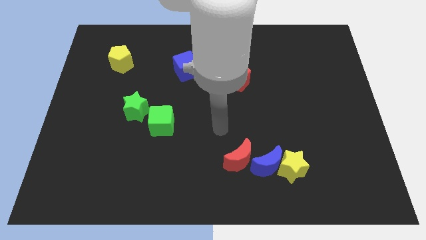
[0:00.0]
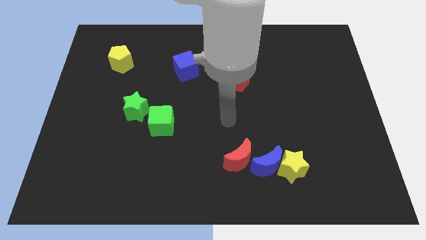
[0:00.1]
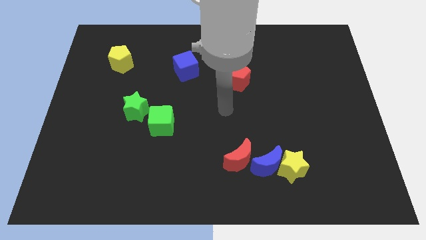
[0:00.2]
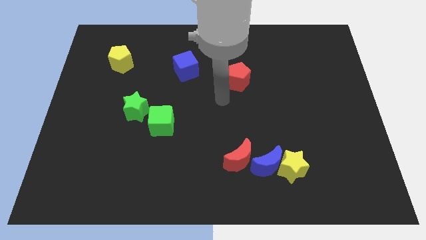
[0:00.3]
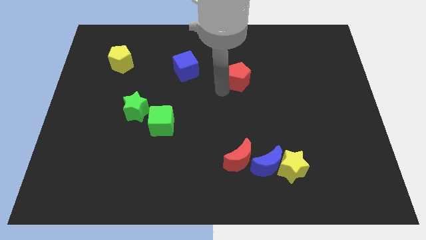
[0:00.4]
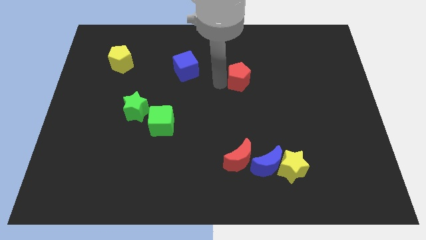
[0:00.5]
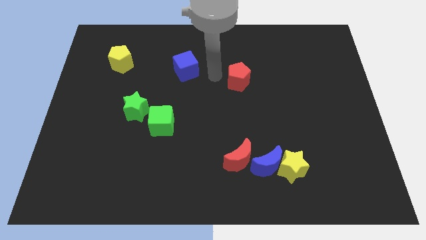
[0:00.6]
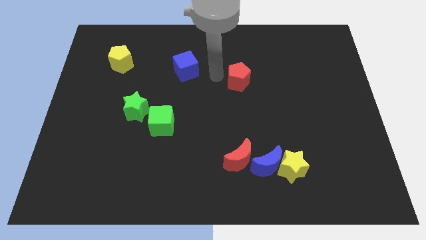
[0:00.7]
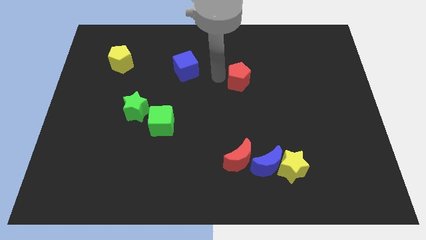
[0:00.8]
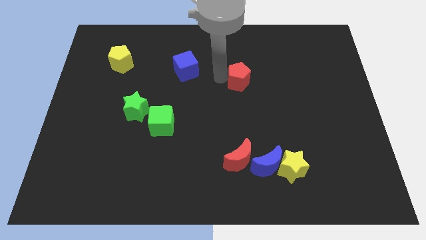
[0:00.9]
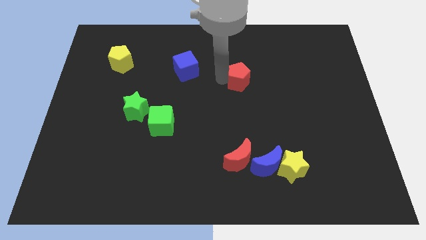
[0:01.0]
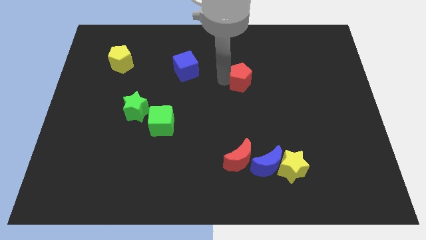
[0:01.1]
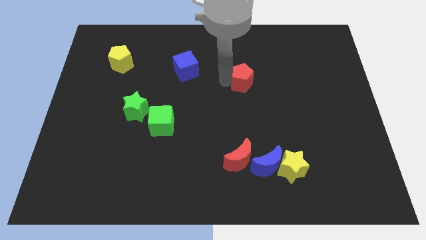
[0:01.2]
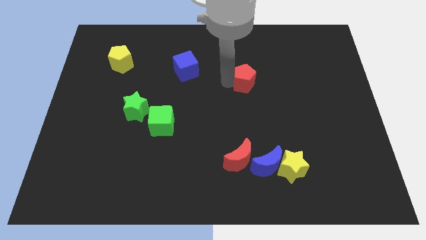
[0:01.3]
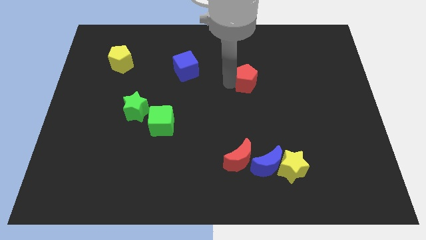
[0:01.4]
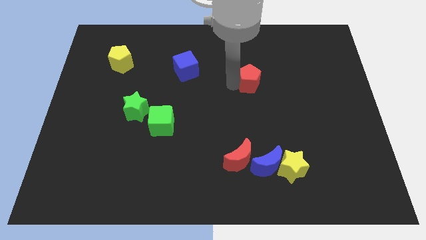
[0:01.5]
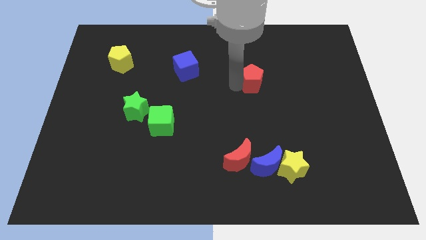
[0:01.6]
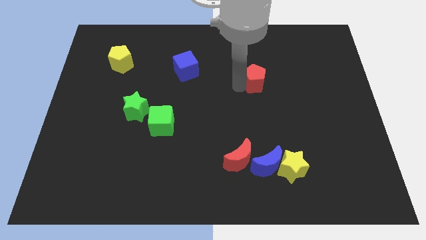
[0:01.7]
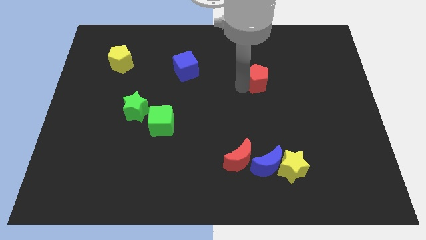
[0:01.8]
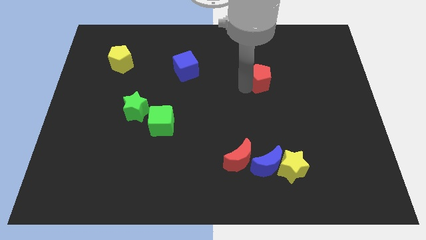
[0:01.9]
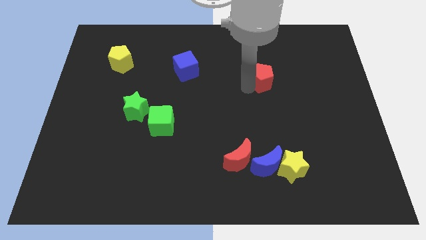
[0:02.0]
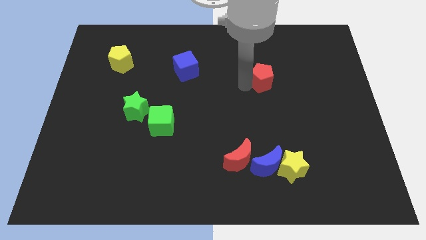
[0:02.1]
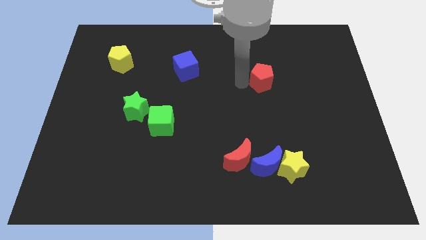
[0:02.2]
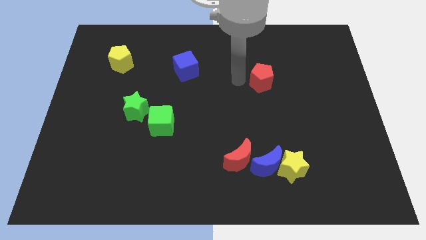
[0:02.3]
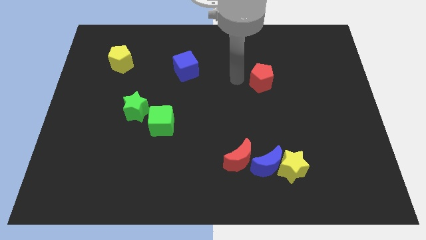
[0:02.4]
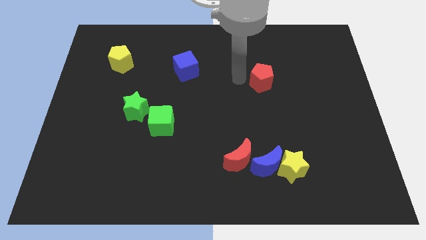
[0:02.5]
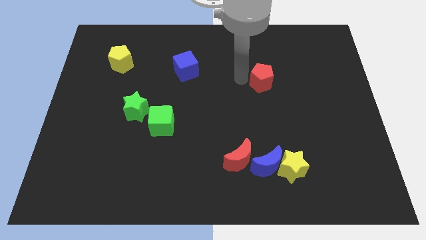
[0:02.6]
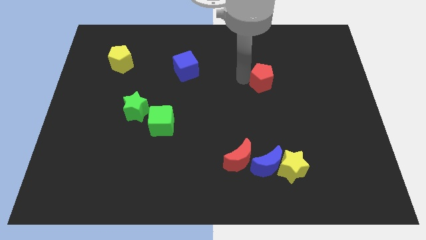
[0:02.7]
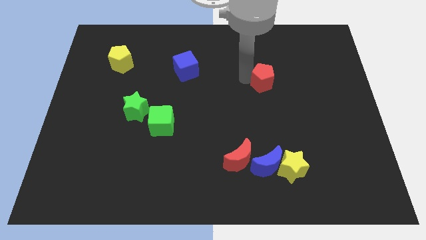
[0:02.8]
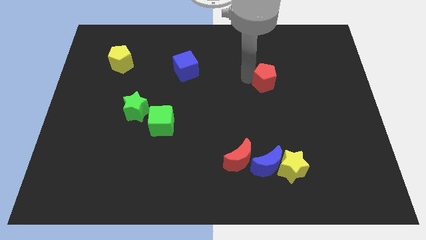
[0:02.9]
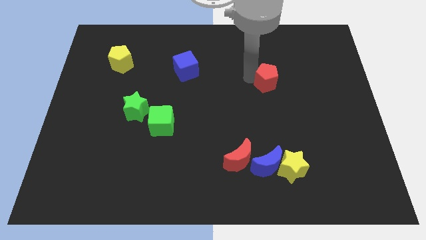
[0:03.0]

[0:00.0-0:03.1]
slightly slide the red pentagon to the right

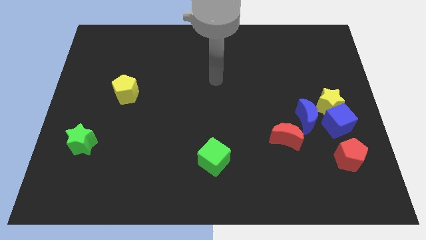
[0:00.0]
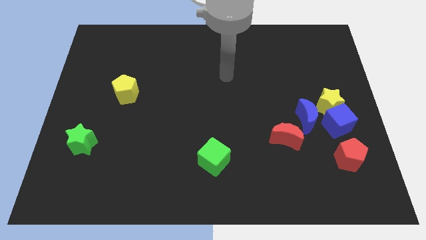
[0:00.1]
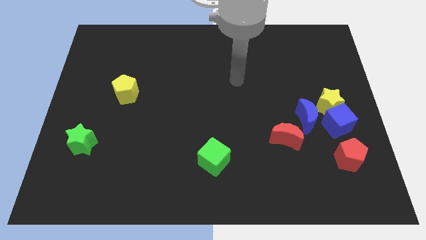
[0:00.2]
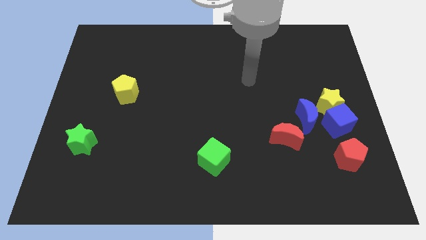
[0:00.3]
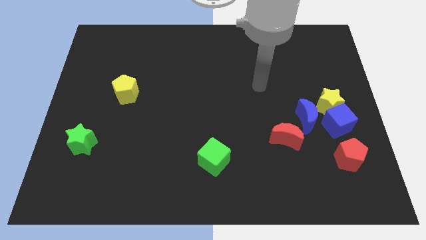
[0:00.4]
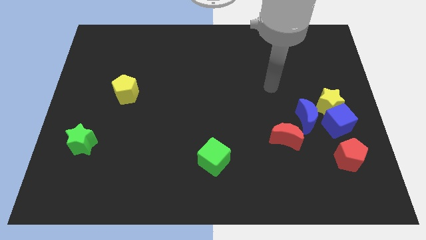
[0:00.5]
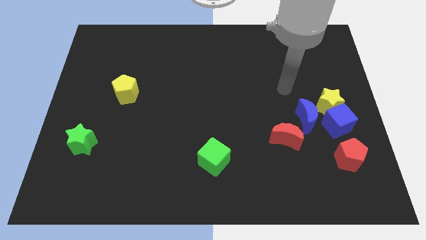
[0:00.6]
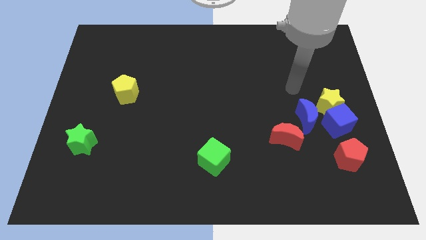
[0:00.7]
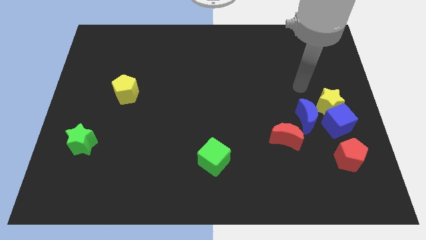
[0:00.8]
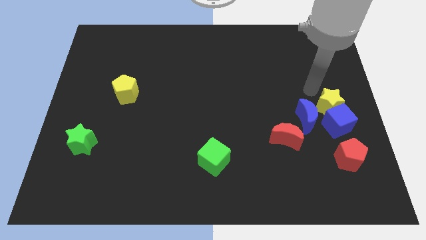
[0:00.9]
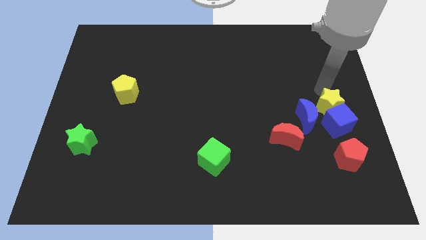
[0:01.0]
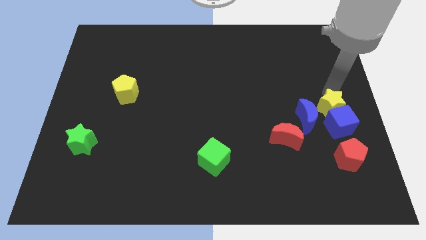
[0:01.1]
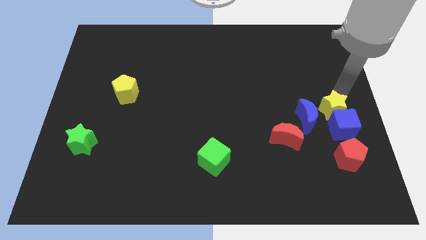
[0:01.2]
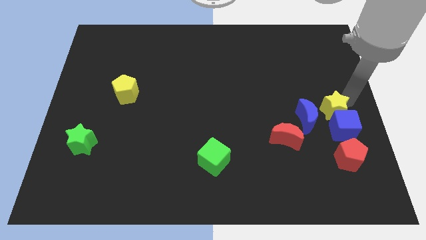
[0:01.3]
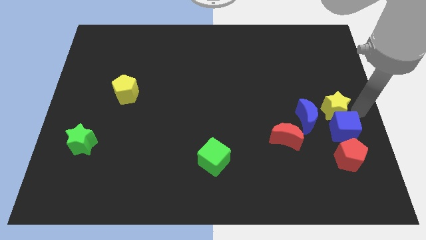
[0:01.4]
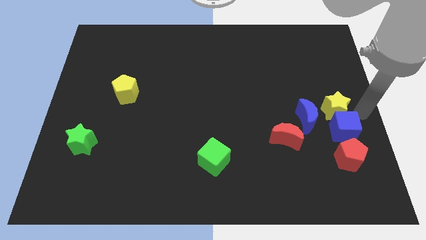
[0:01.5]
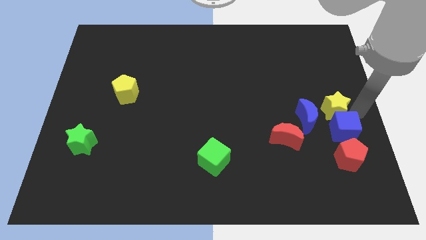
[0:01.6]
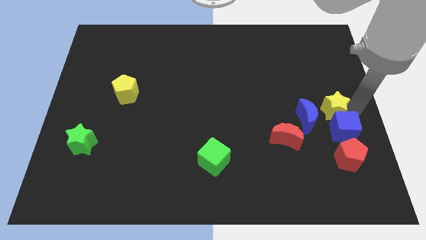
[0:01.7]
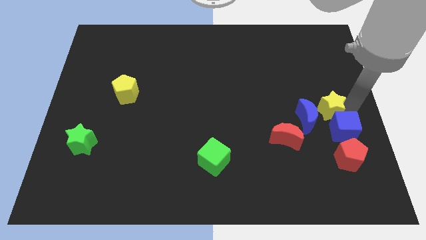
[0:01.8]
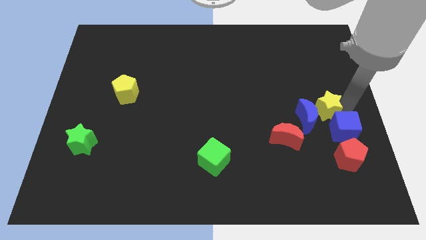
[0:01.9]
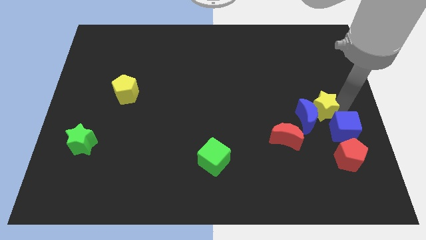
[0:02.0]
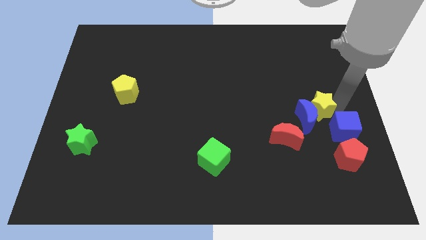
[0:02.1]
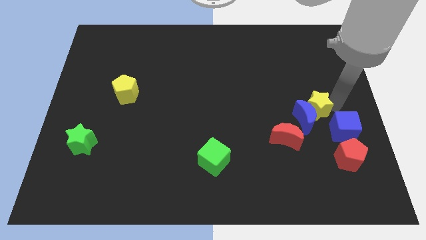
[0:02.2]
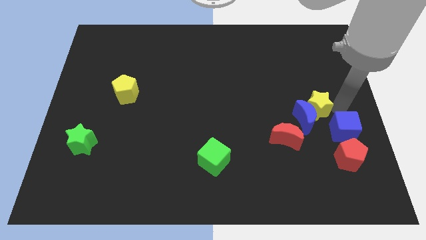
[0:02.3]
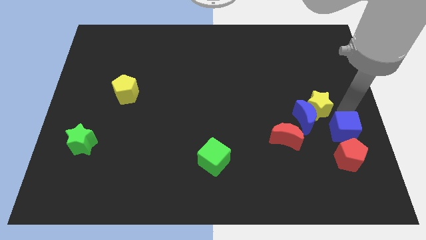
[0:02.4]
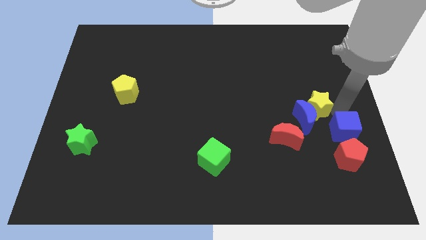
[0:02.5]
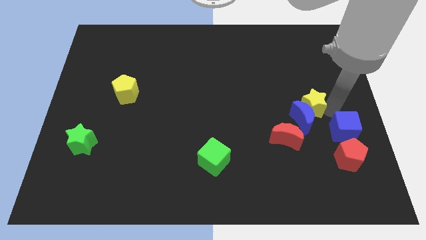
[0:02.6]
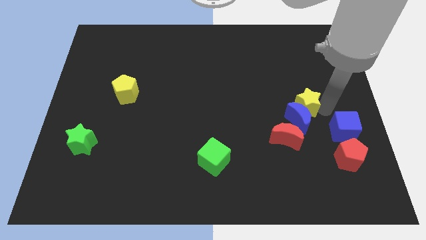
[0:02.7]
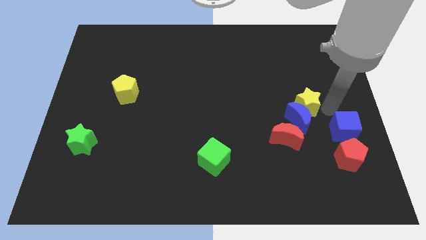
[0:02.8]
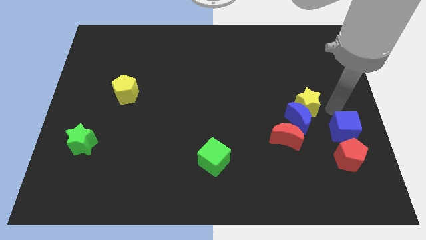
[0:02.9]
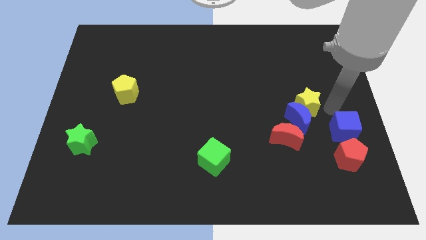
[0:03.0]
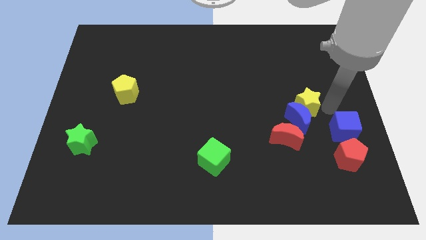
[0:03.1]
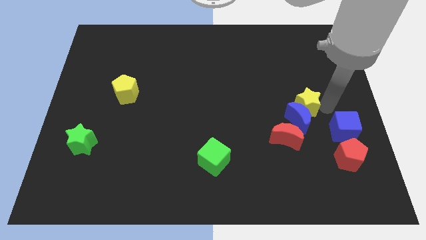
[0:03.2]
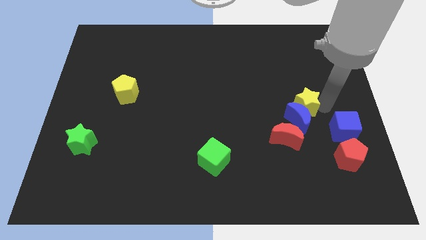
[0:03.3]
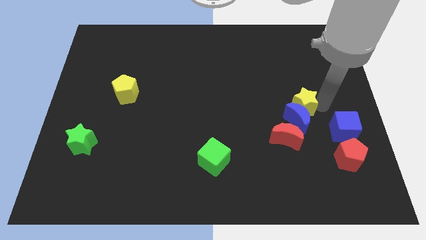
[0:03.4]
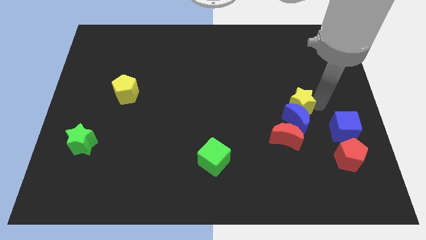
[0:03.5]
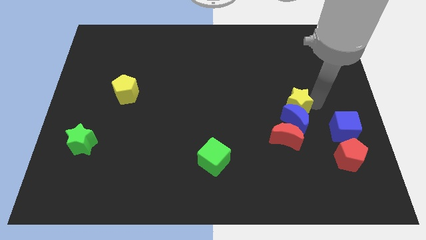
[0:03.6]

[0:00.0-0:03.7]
move the yellow star left slightly

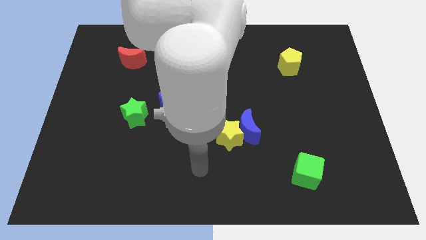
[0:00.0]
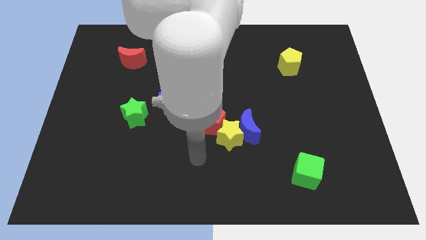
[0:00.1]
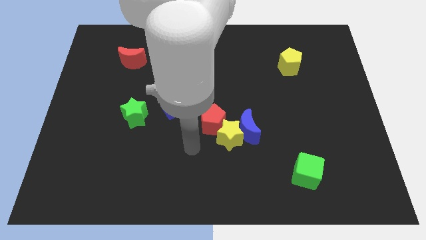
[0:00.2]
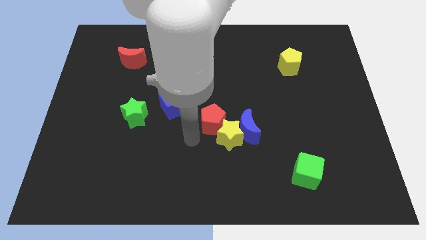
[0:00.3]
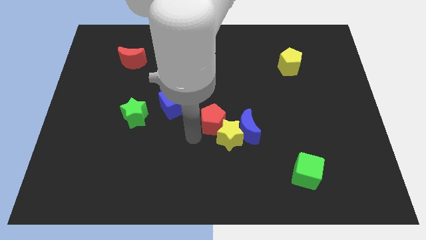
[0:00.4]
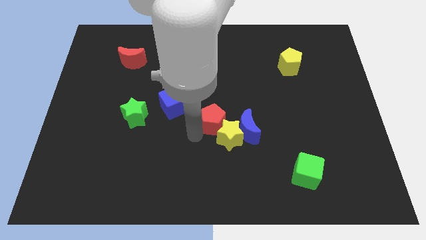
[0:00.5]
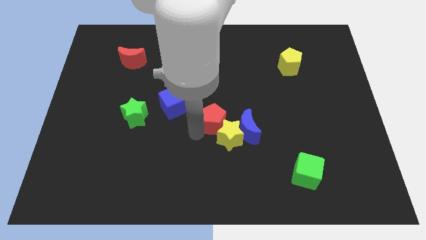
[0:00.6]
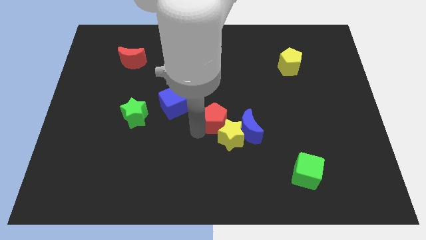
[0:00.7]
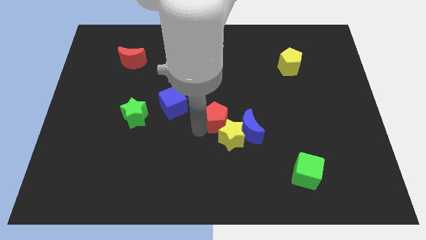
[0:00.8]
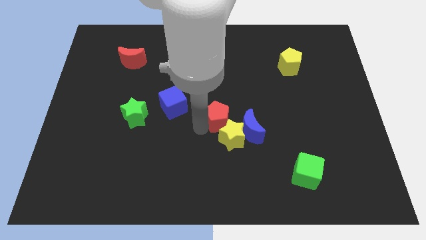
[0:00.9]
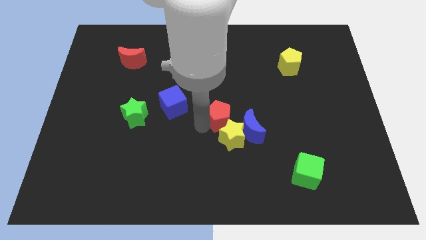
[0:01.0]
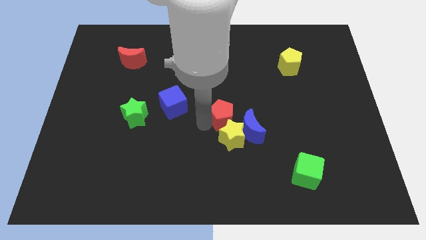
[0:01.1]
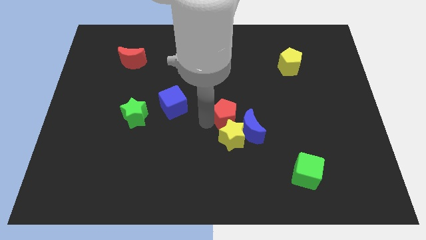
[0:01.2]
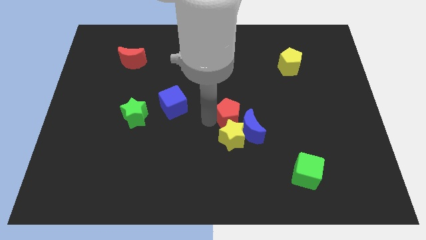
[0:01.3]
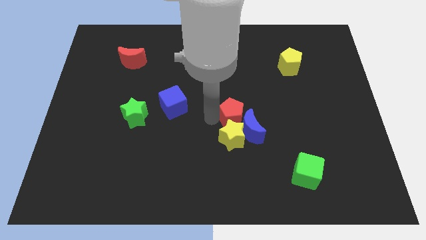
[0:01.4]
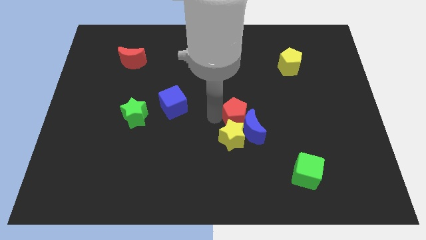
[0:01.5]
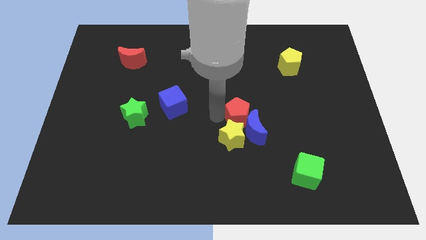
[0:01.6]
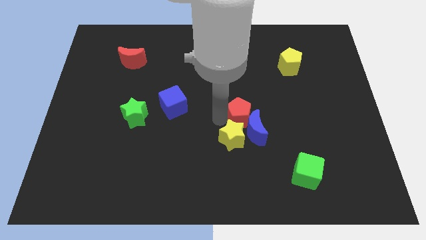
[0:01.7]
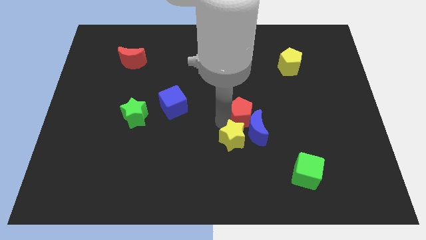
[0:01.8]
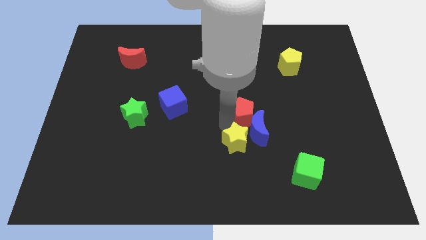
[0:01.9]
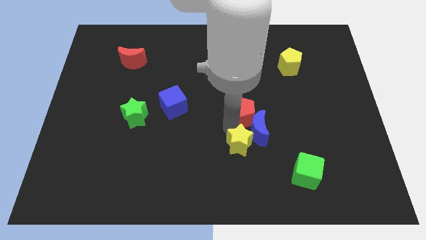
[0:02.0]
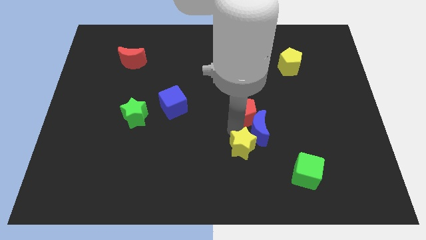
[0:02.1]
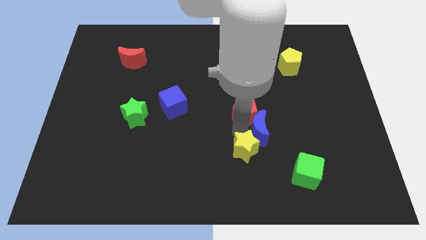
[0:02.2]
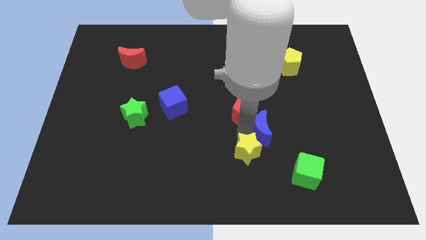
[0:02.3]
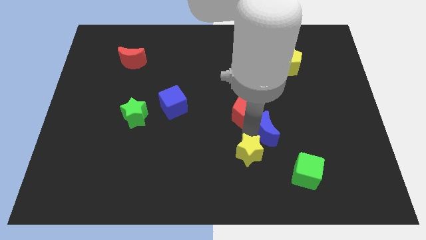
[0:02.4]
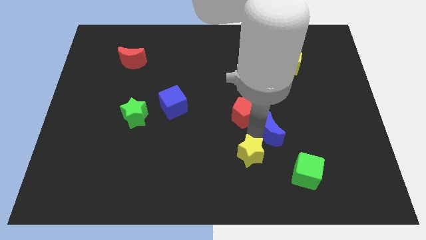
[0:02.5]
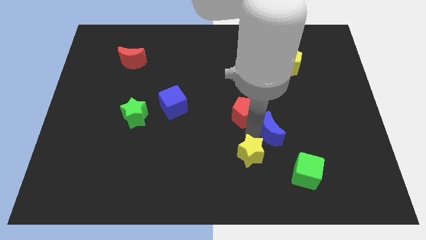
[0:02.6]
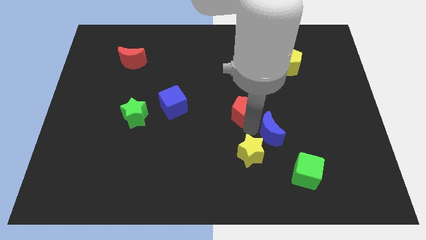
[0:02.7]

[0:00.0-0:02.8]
slide the red pentagon upwards and then right somewhat
